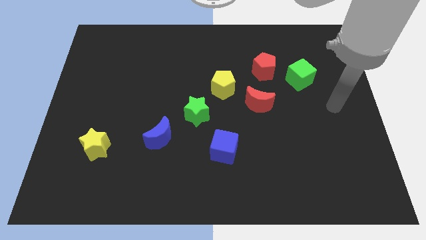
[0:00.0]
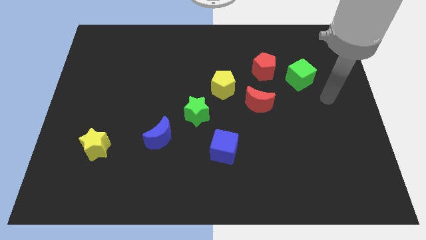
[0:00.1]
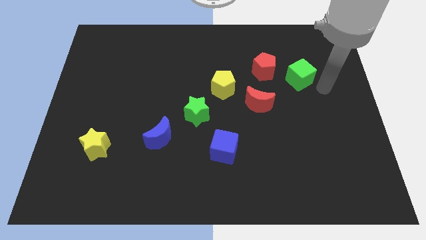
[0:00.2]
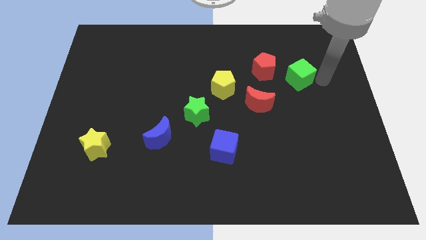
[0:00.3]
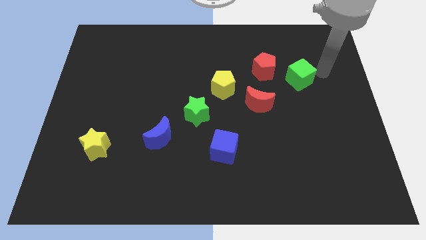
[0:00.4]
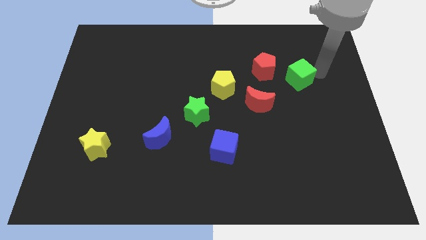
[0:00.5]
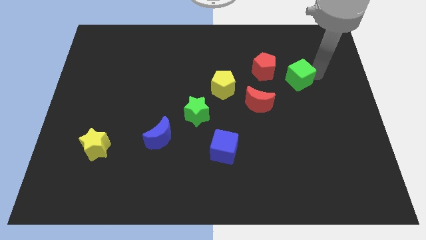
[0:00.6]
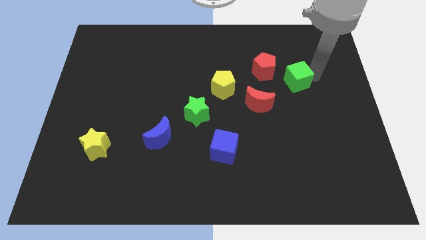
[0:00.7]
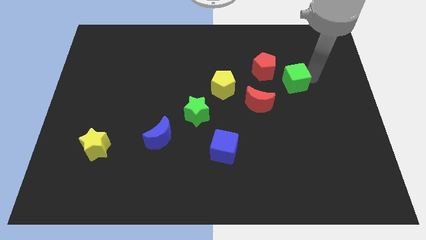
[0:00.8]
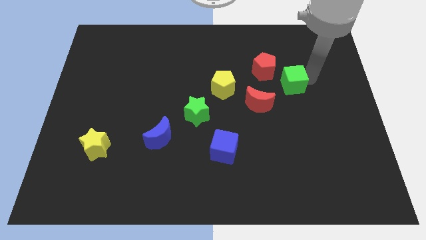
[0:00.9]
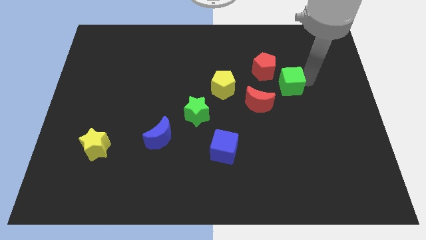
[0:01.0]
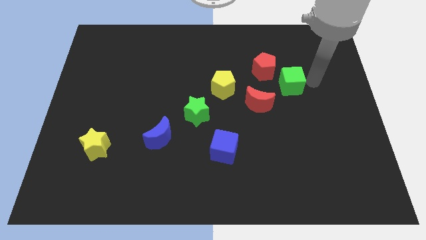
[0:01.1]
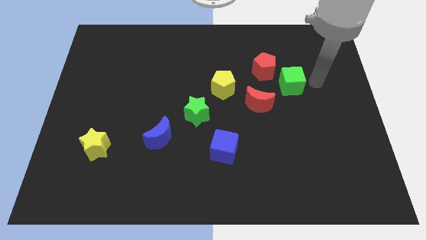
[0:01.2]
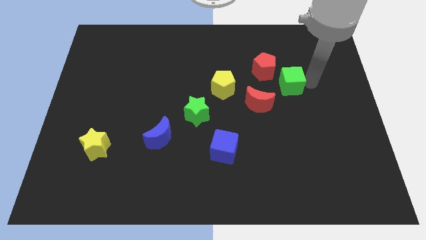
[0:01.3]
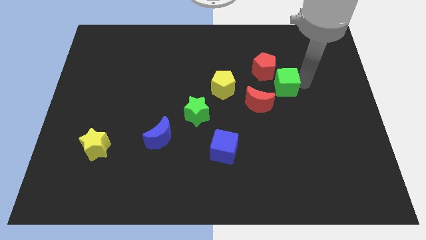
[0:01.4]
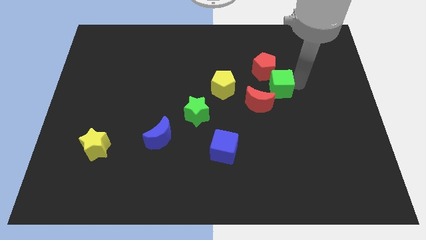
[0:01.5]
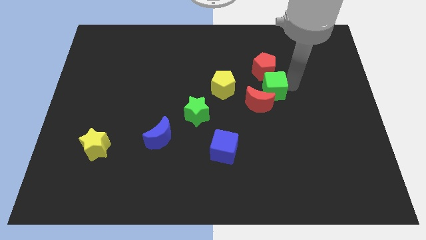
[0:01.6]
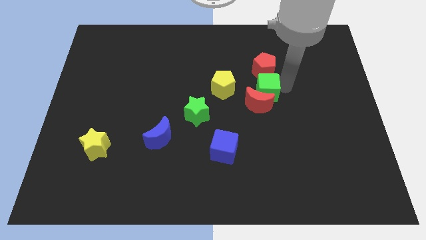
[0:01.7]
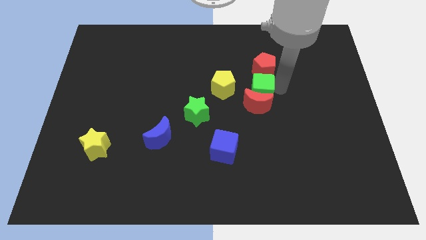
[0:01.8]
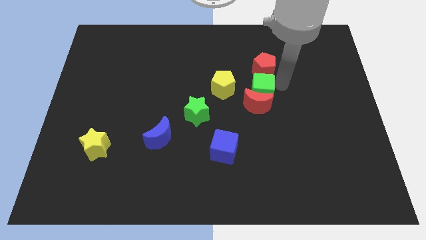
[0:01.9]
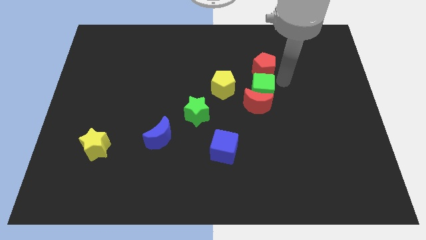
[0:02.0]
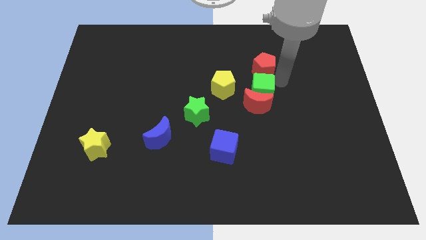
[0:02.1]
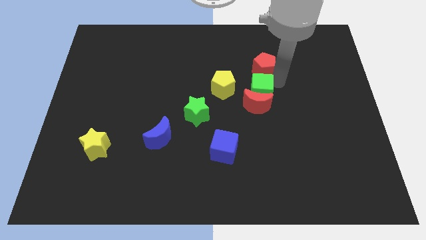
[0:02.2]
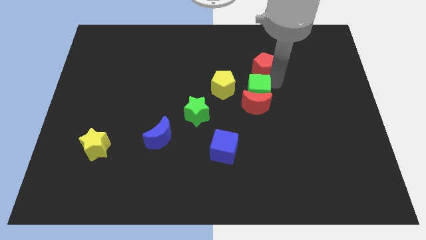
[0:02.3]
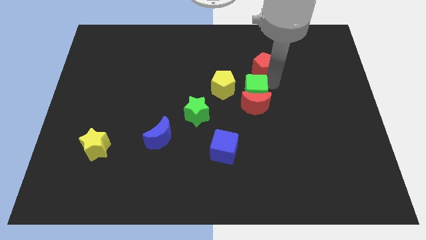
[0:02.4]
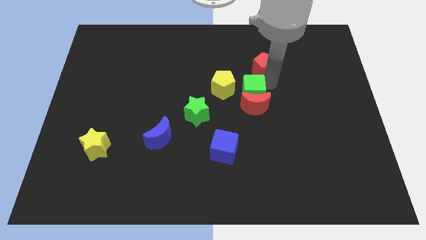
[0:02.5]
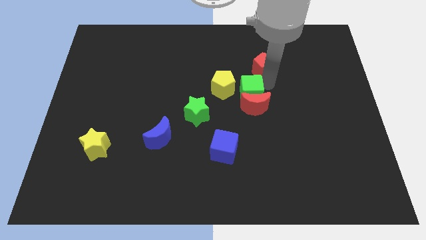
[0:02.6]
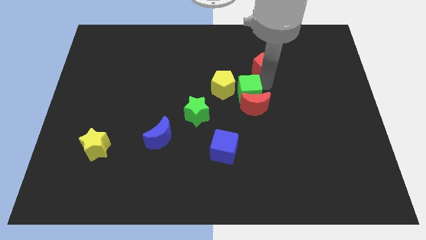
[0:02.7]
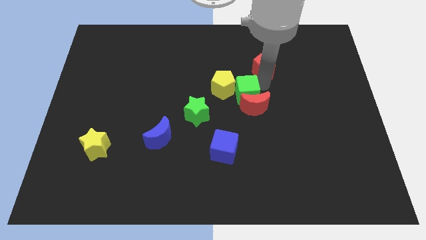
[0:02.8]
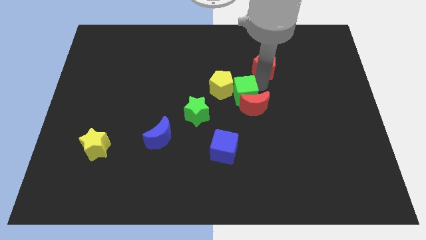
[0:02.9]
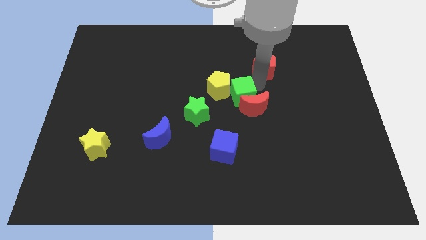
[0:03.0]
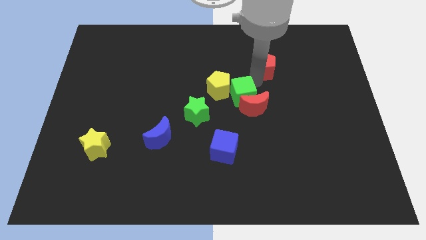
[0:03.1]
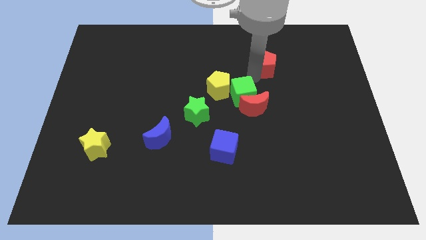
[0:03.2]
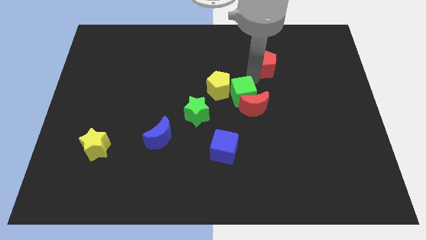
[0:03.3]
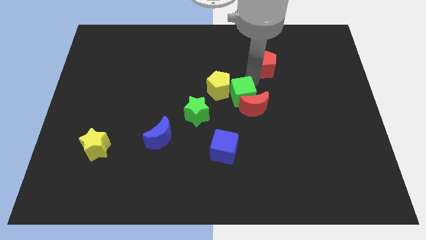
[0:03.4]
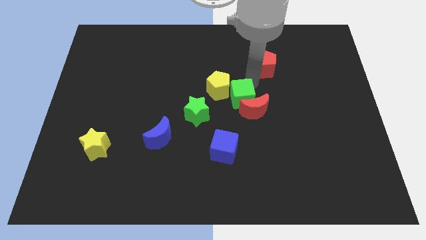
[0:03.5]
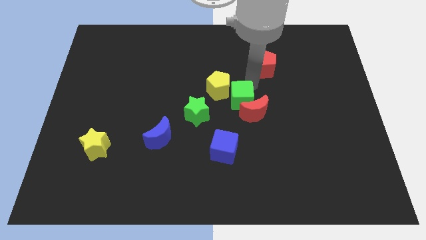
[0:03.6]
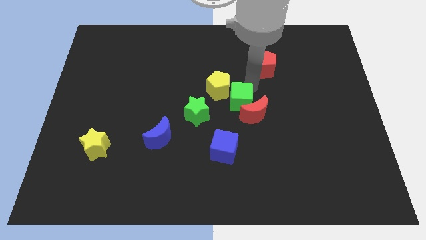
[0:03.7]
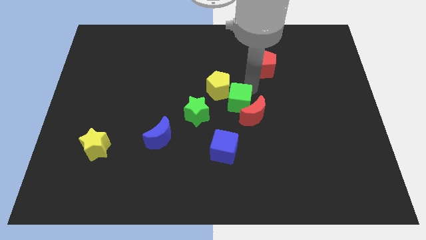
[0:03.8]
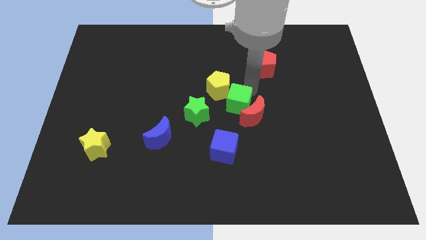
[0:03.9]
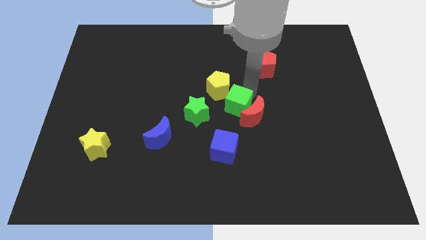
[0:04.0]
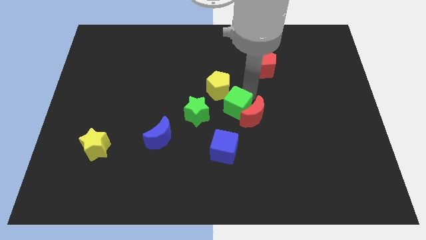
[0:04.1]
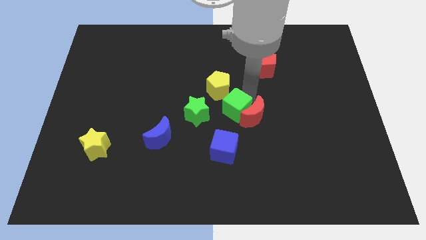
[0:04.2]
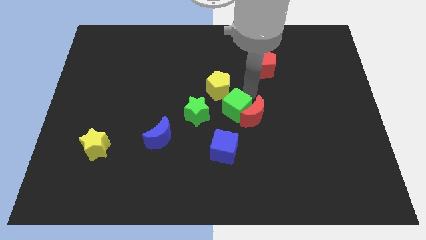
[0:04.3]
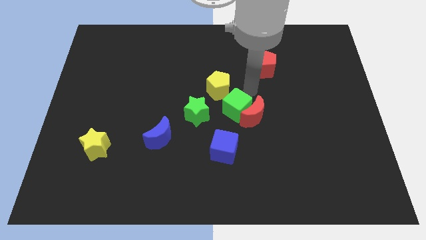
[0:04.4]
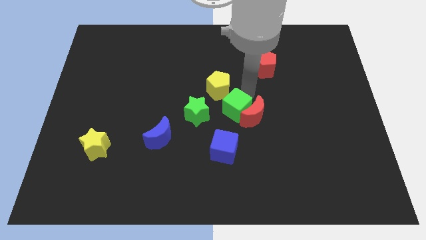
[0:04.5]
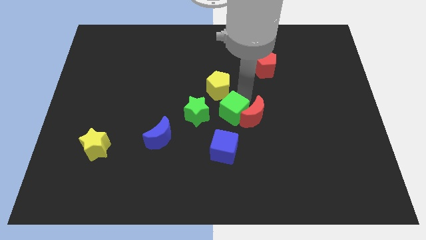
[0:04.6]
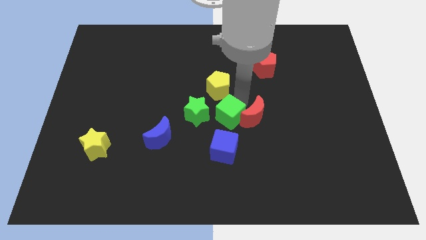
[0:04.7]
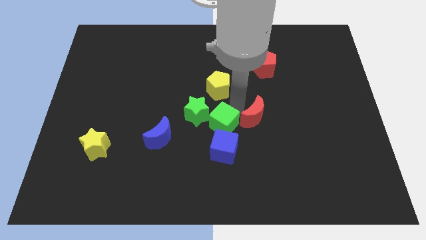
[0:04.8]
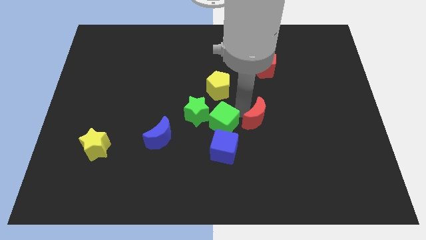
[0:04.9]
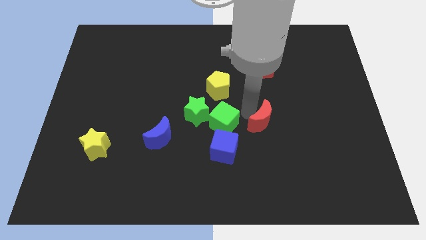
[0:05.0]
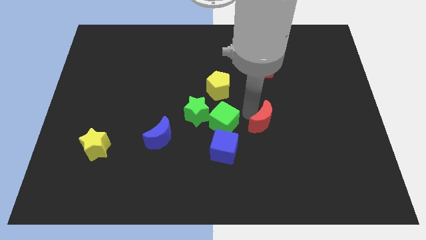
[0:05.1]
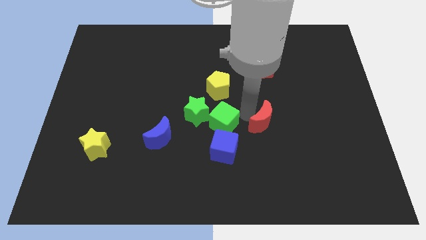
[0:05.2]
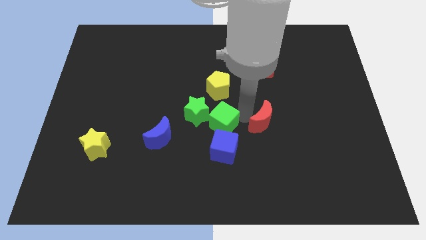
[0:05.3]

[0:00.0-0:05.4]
put the green cube to the top left of the blue cube

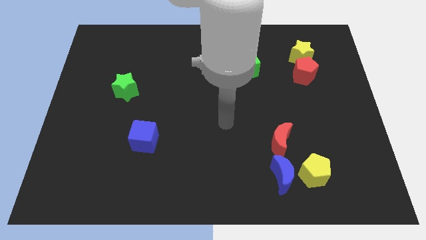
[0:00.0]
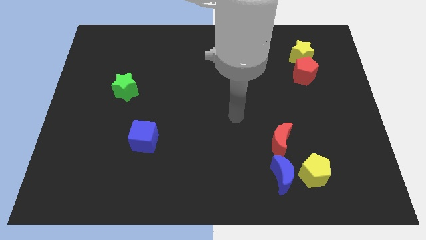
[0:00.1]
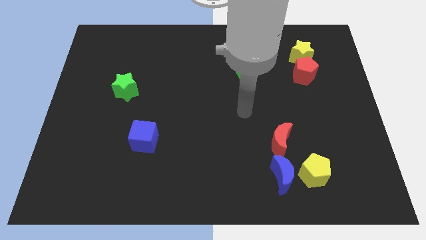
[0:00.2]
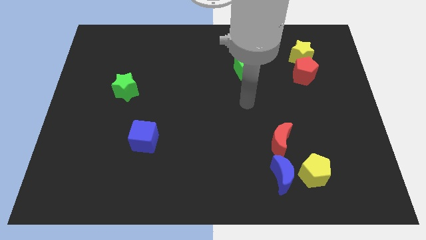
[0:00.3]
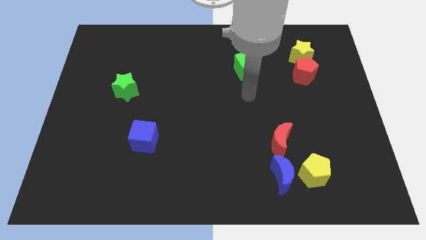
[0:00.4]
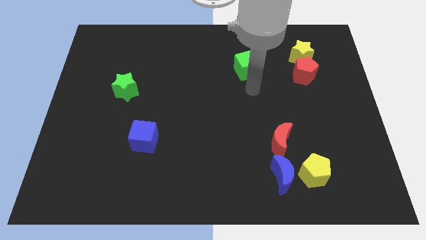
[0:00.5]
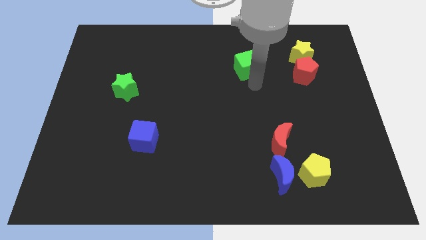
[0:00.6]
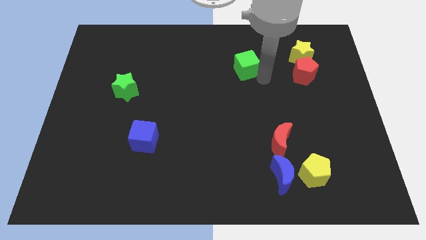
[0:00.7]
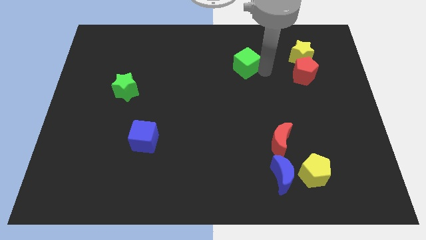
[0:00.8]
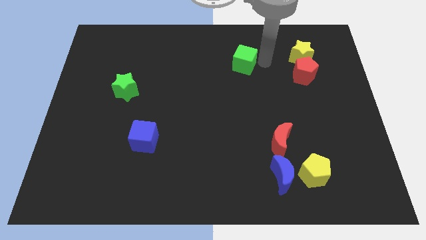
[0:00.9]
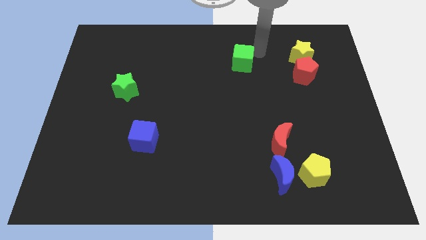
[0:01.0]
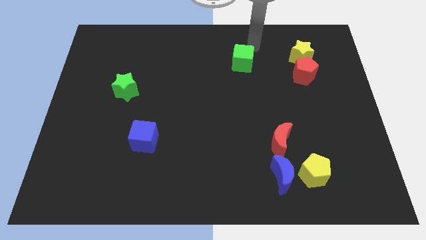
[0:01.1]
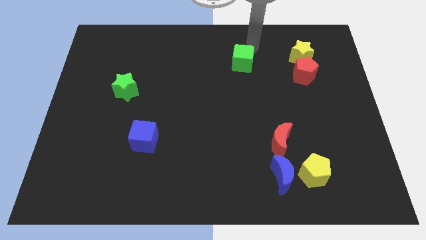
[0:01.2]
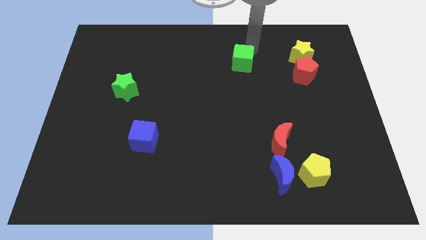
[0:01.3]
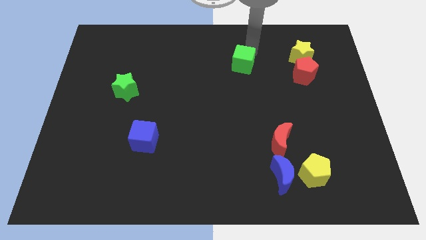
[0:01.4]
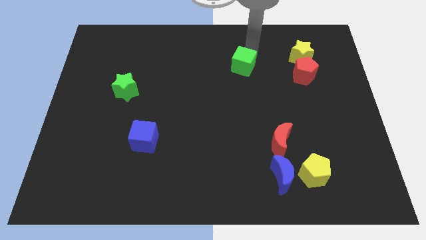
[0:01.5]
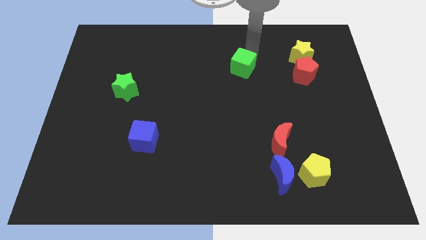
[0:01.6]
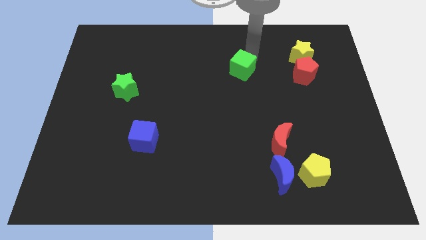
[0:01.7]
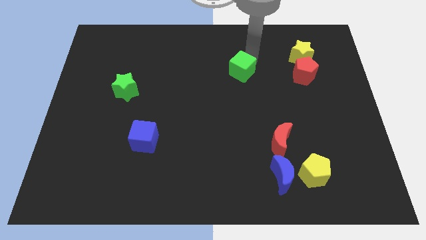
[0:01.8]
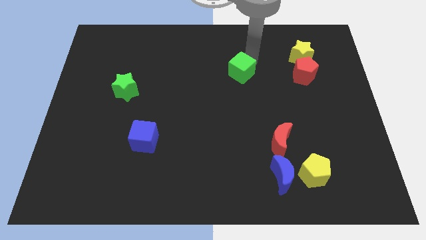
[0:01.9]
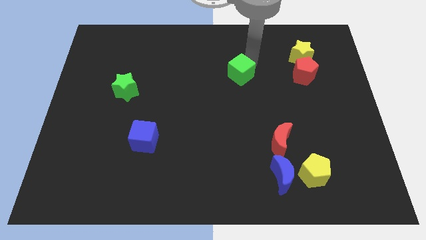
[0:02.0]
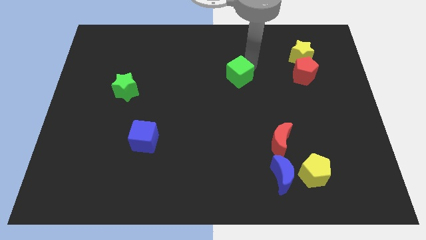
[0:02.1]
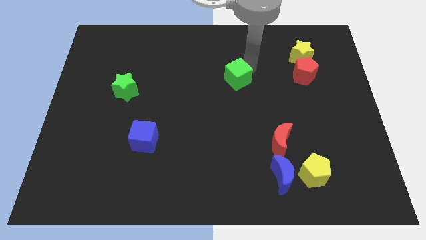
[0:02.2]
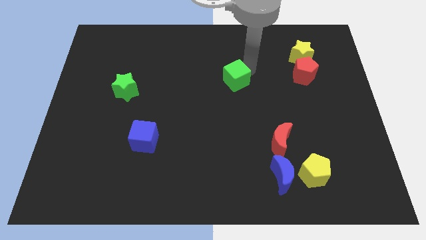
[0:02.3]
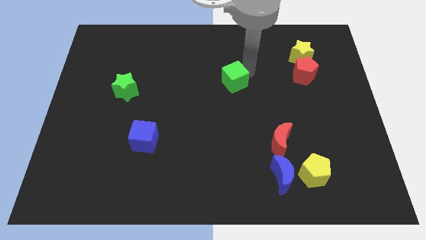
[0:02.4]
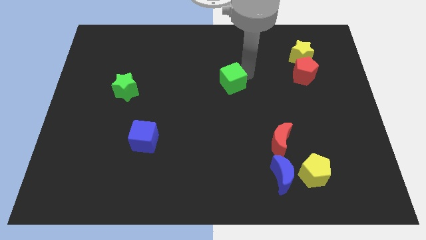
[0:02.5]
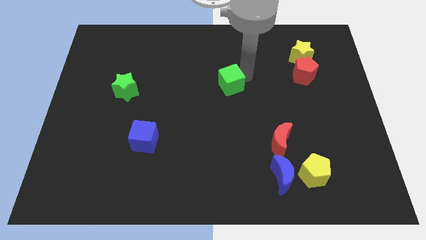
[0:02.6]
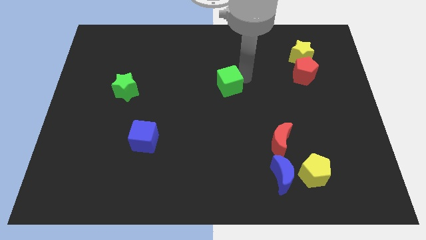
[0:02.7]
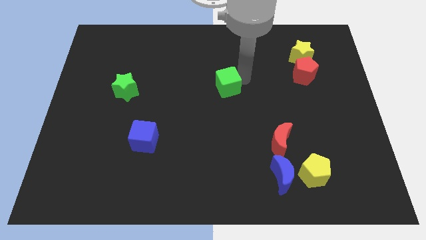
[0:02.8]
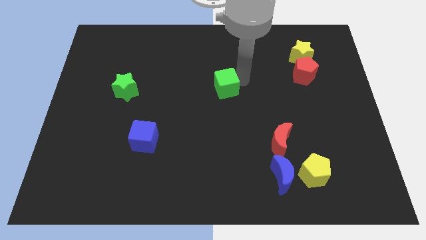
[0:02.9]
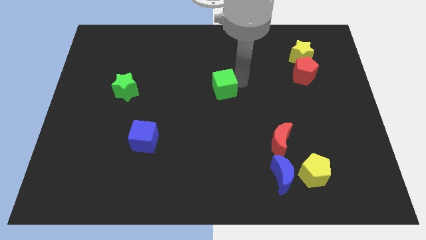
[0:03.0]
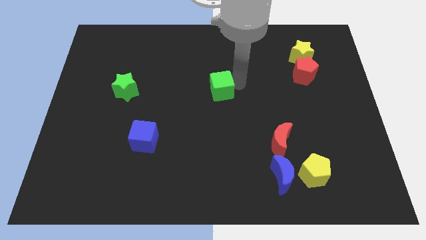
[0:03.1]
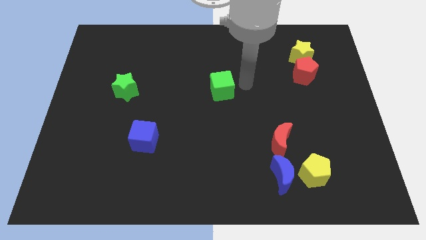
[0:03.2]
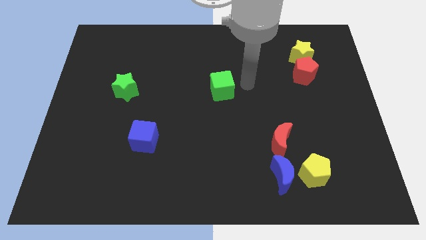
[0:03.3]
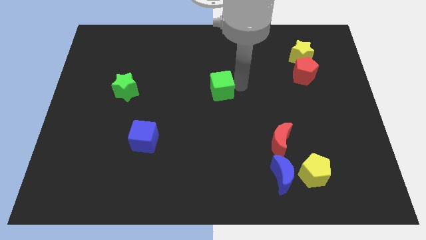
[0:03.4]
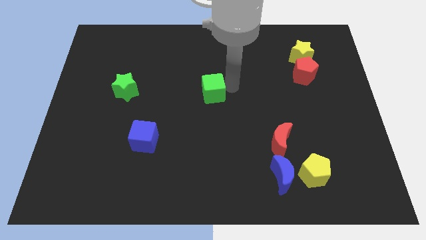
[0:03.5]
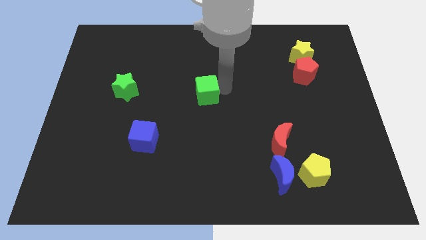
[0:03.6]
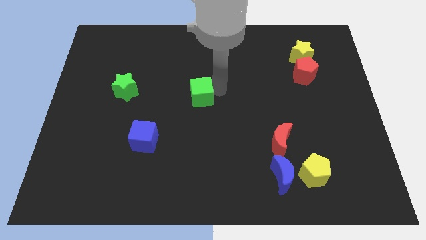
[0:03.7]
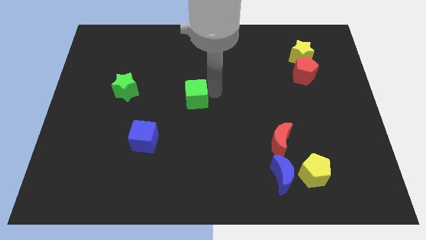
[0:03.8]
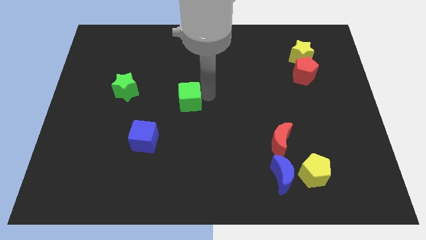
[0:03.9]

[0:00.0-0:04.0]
push the green cube to the right of the green star
